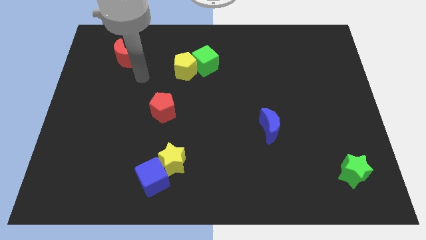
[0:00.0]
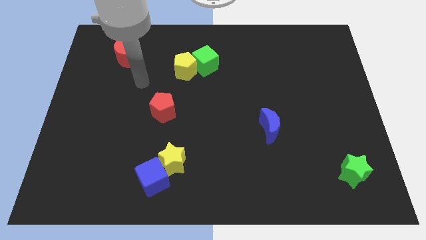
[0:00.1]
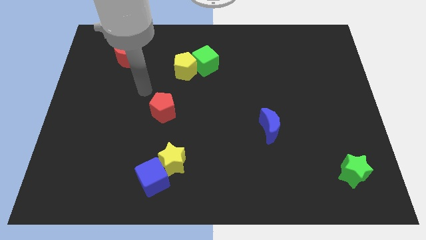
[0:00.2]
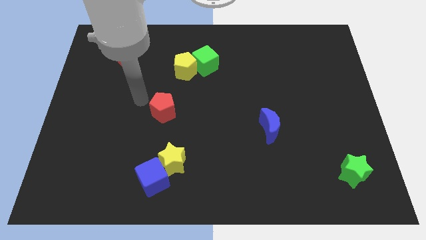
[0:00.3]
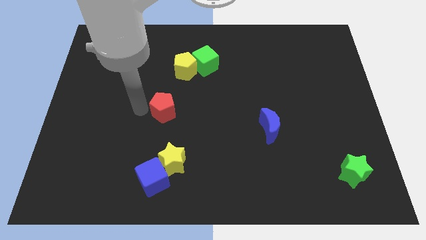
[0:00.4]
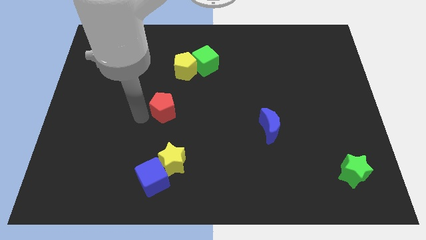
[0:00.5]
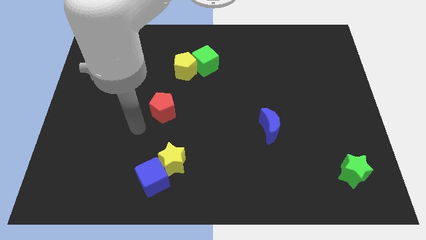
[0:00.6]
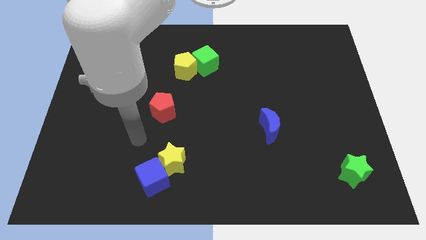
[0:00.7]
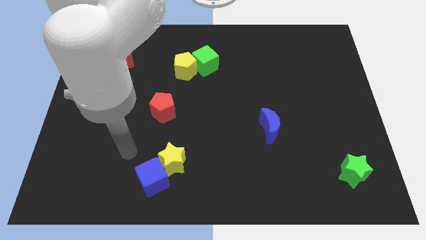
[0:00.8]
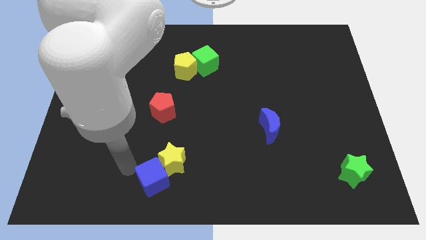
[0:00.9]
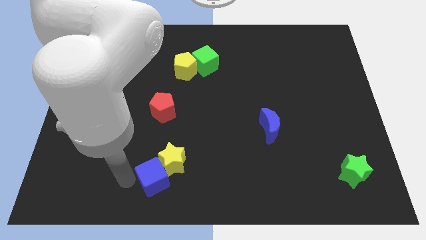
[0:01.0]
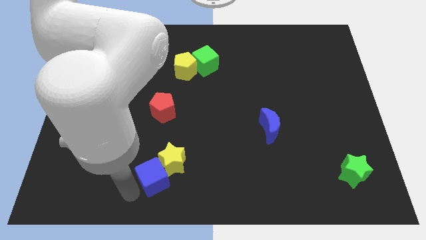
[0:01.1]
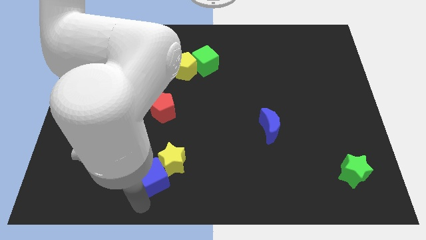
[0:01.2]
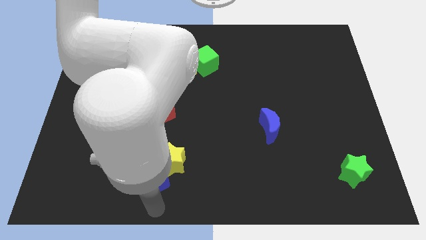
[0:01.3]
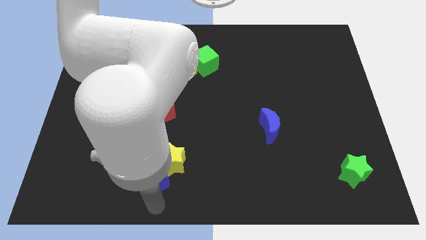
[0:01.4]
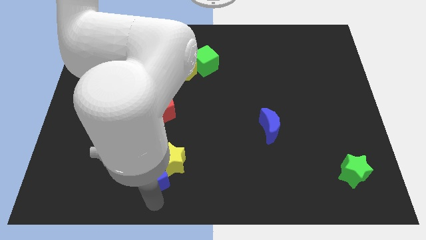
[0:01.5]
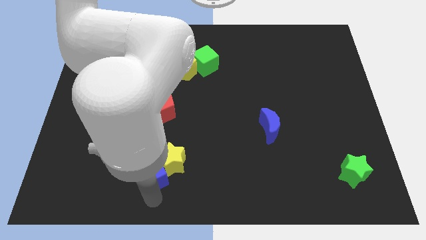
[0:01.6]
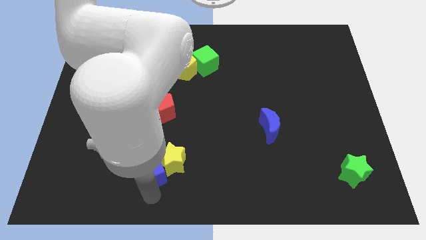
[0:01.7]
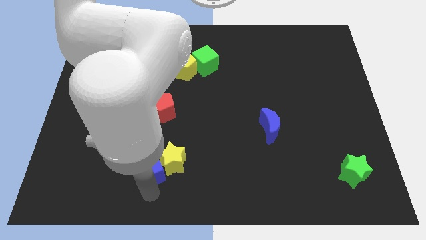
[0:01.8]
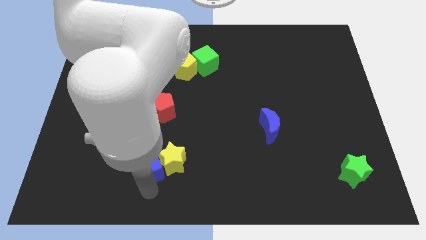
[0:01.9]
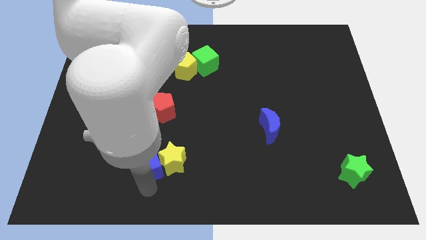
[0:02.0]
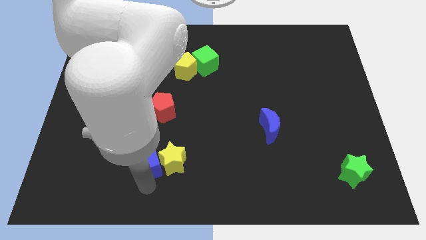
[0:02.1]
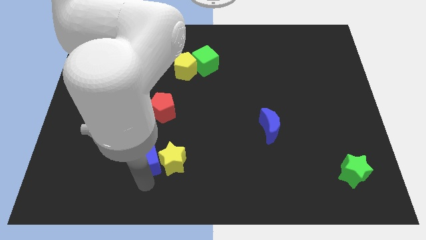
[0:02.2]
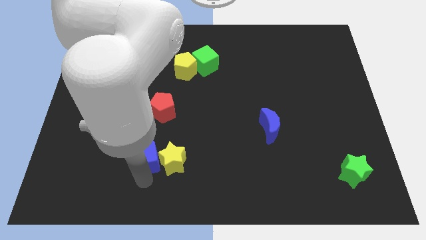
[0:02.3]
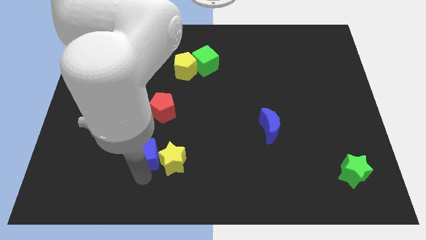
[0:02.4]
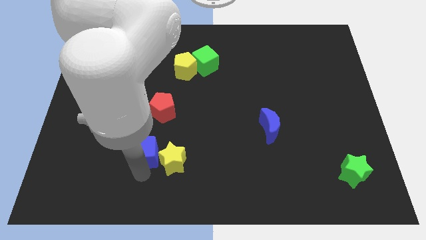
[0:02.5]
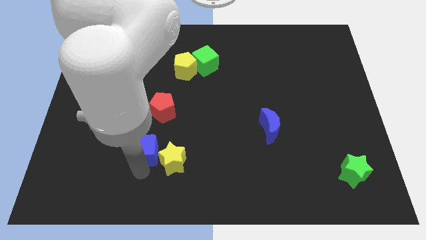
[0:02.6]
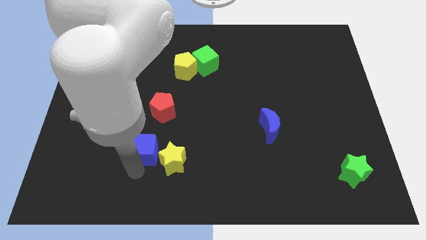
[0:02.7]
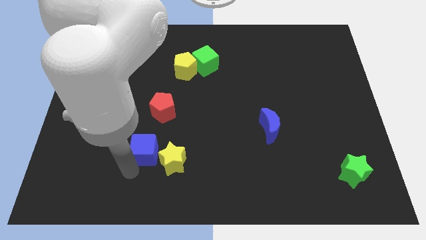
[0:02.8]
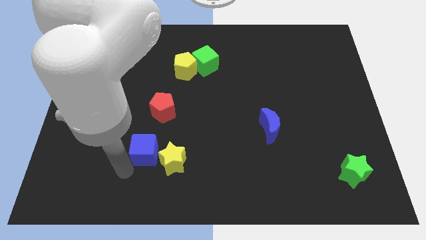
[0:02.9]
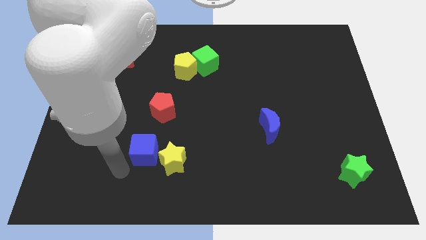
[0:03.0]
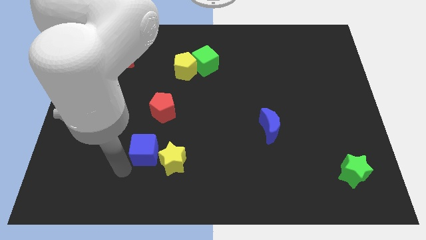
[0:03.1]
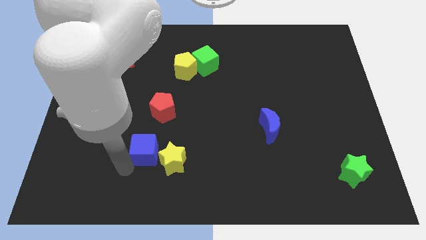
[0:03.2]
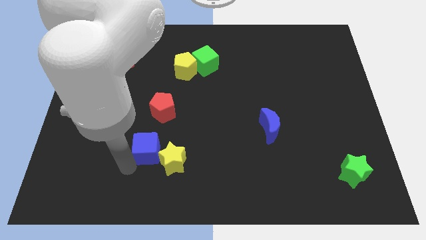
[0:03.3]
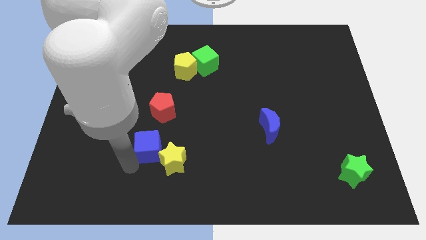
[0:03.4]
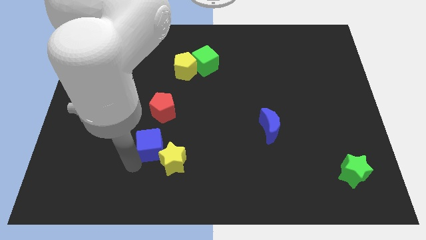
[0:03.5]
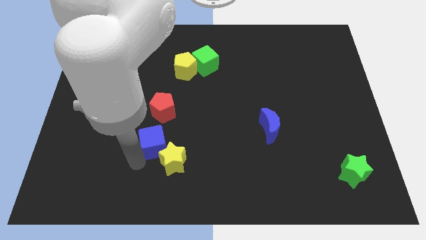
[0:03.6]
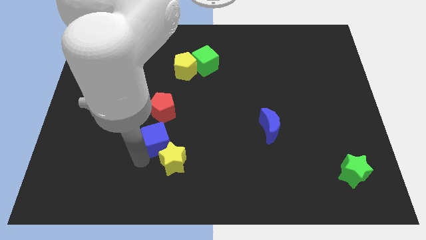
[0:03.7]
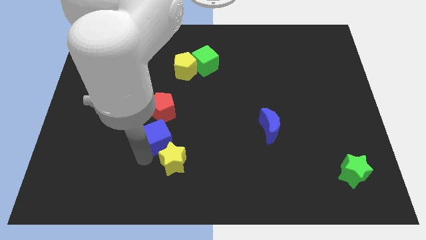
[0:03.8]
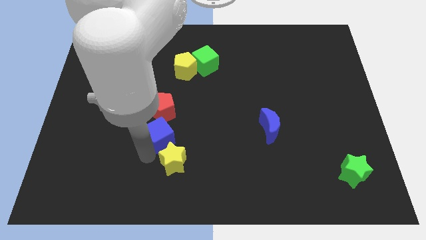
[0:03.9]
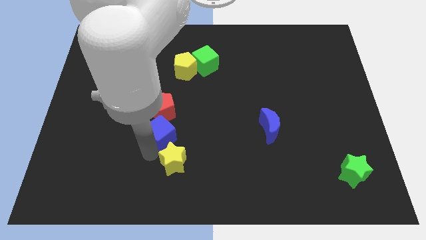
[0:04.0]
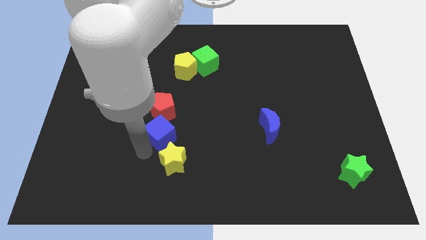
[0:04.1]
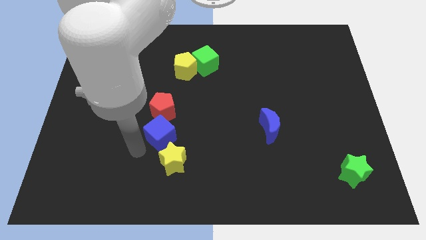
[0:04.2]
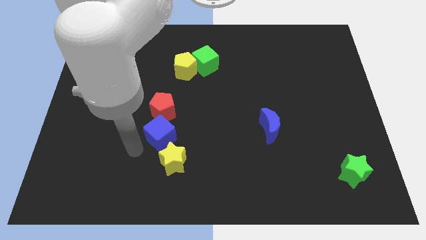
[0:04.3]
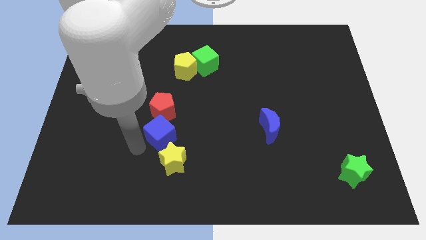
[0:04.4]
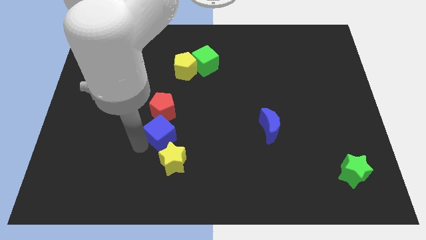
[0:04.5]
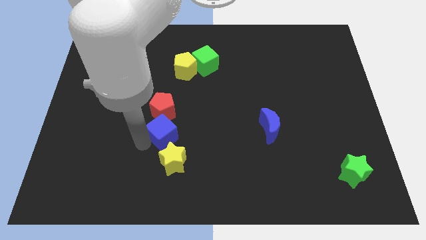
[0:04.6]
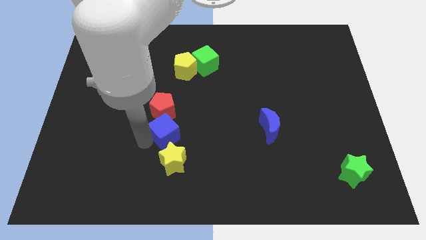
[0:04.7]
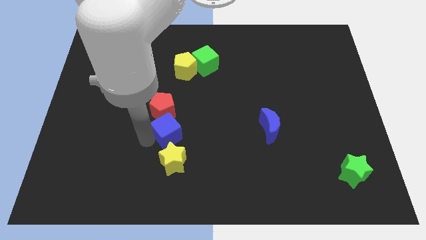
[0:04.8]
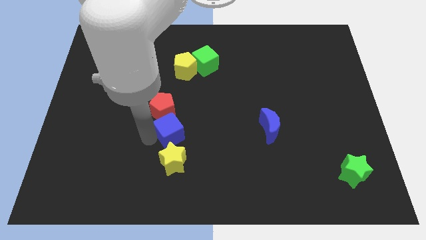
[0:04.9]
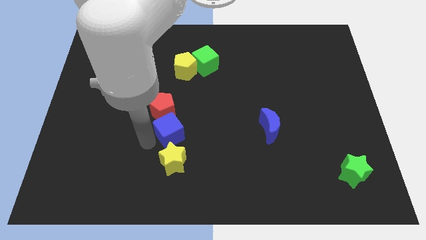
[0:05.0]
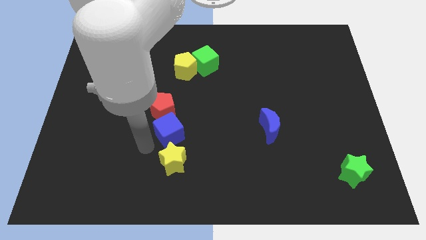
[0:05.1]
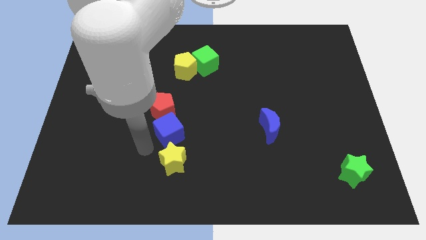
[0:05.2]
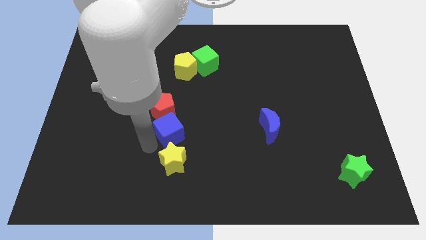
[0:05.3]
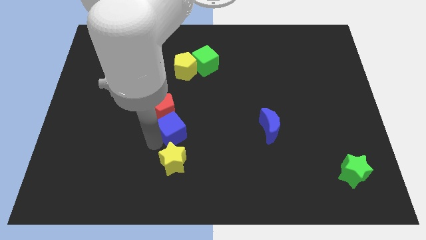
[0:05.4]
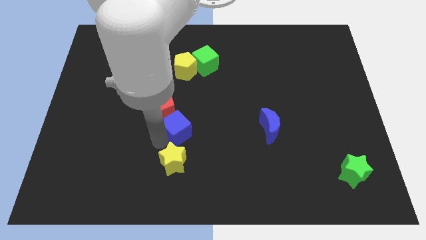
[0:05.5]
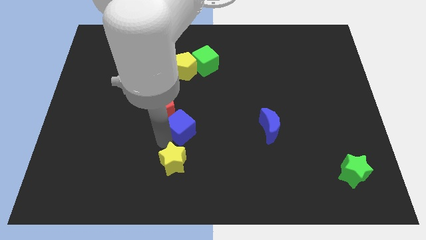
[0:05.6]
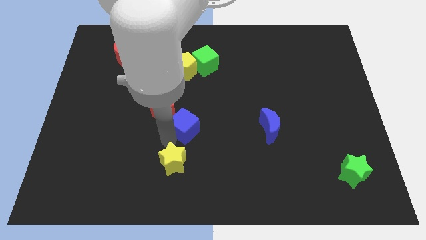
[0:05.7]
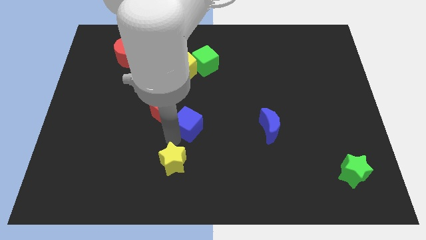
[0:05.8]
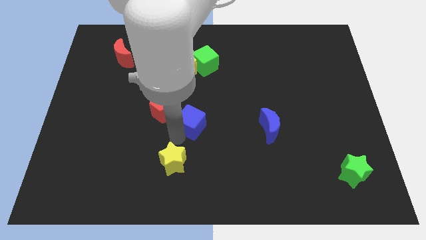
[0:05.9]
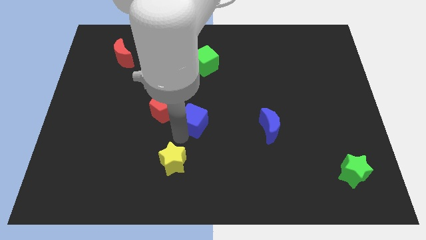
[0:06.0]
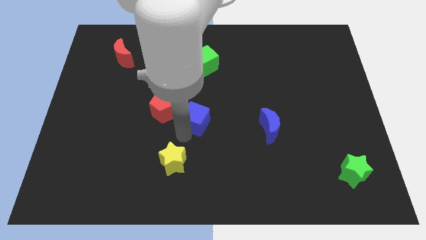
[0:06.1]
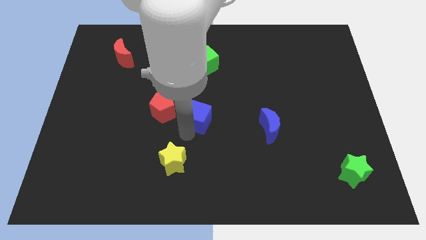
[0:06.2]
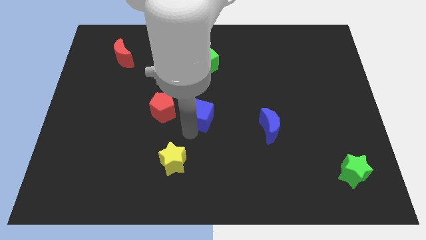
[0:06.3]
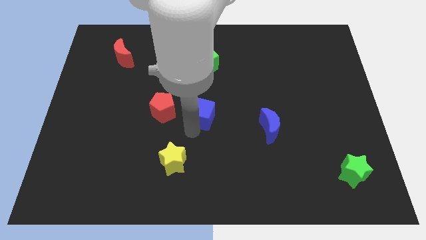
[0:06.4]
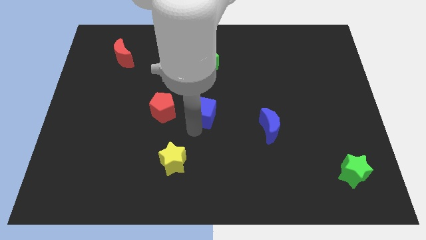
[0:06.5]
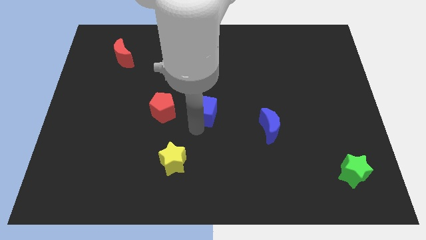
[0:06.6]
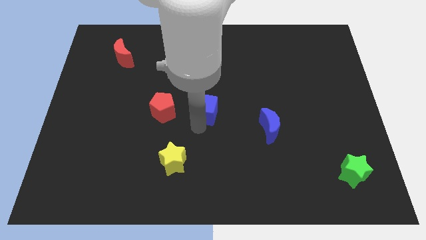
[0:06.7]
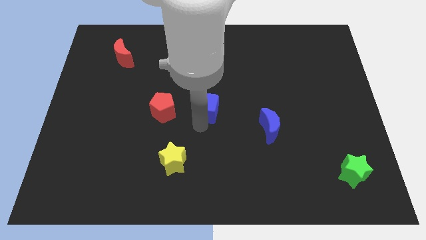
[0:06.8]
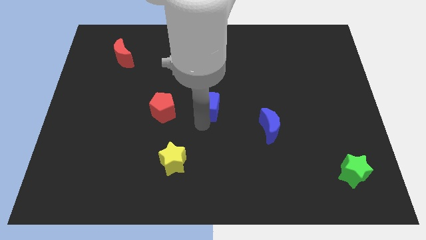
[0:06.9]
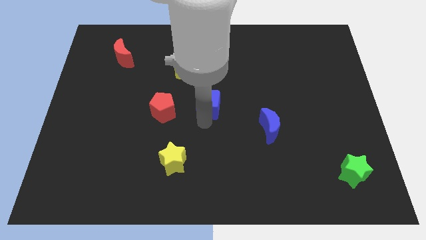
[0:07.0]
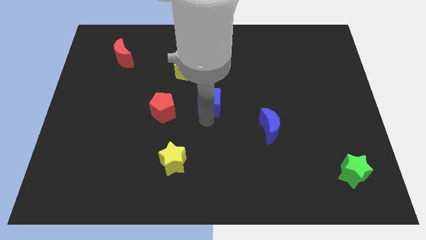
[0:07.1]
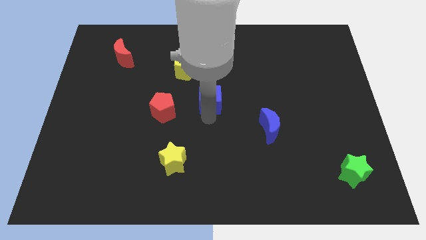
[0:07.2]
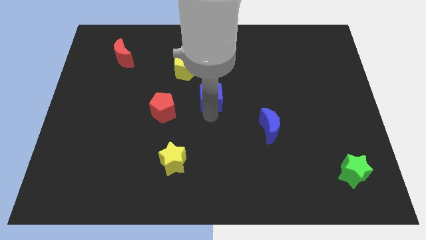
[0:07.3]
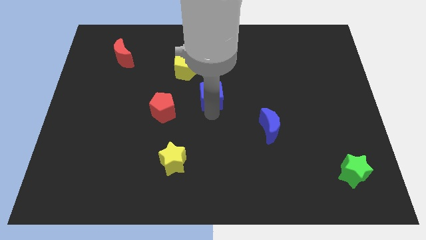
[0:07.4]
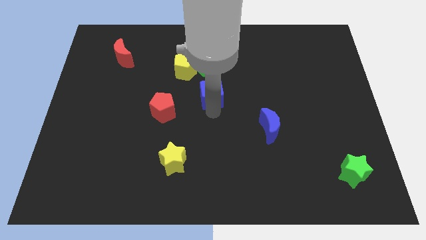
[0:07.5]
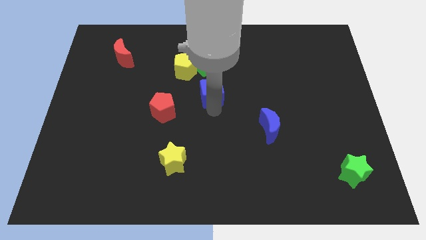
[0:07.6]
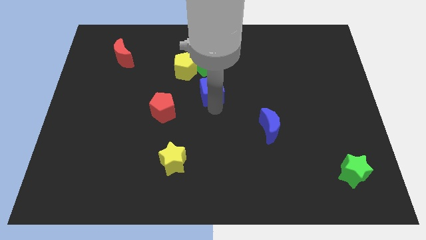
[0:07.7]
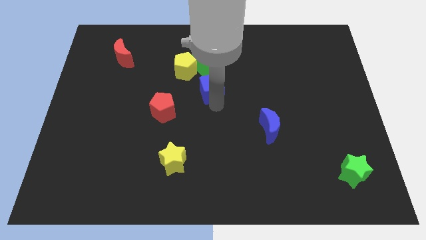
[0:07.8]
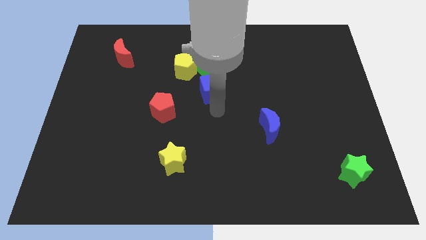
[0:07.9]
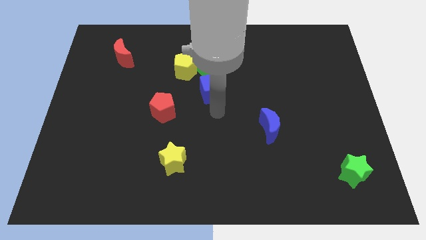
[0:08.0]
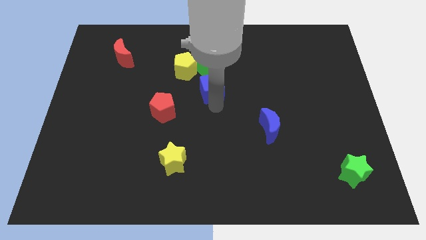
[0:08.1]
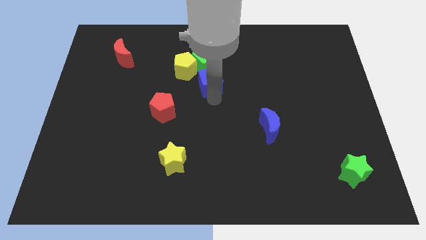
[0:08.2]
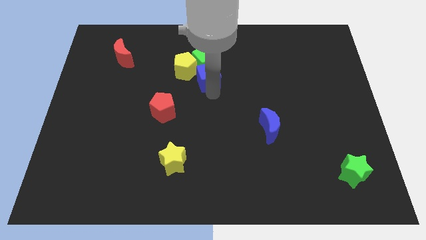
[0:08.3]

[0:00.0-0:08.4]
move the blue cube to the green cube
